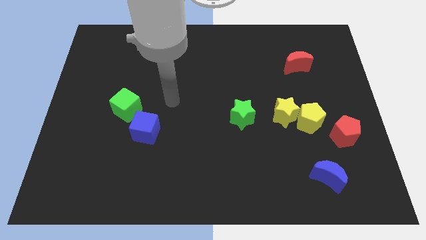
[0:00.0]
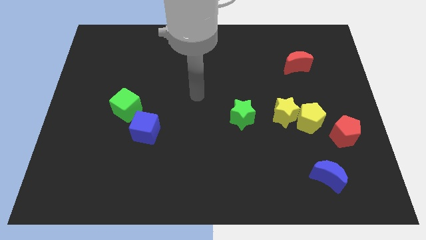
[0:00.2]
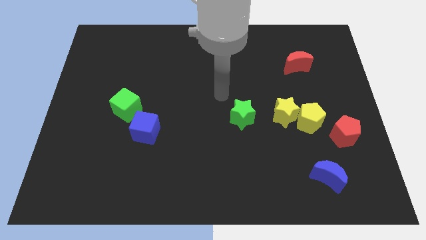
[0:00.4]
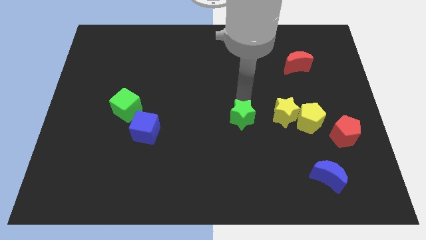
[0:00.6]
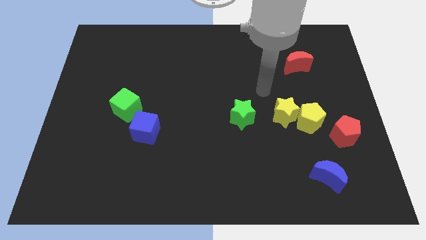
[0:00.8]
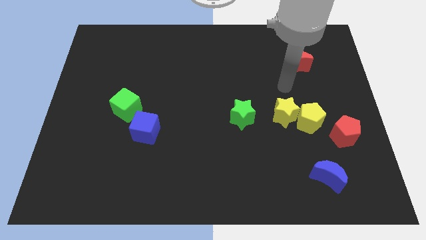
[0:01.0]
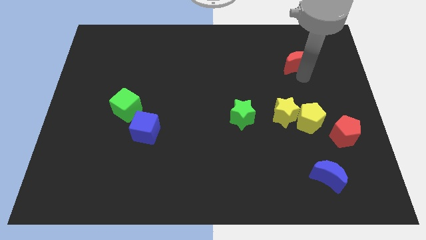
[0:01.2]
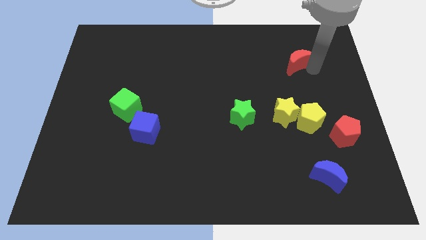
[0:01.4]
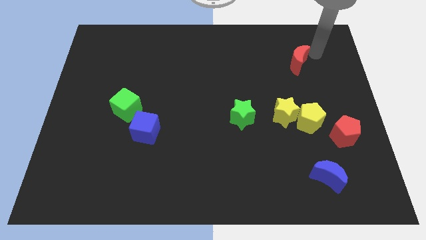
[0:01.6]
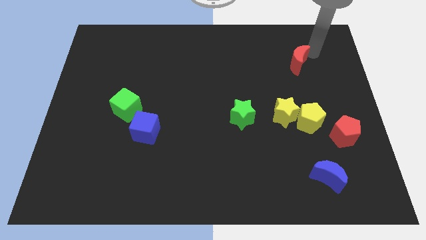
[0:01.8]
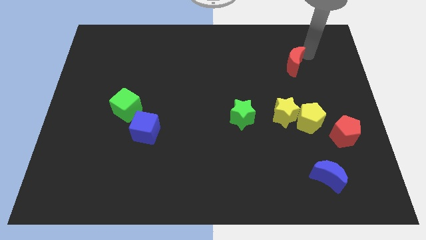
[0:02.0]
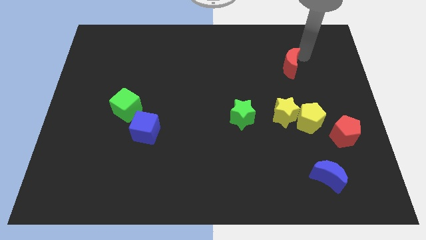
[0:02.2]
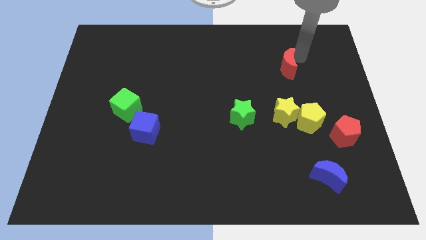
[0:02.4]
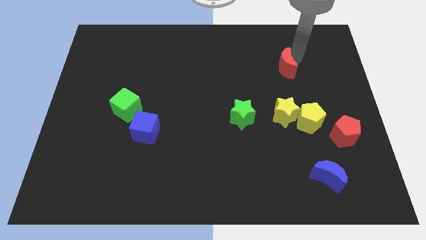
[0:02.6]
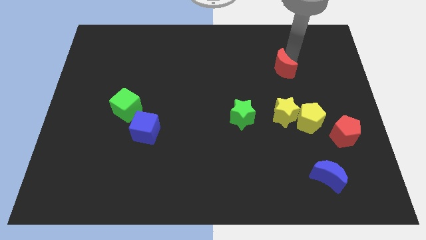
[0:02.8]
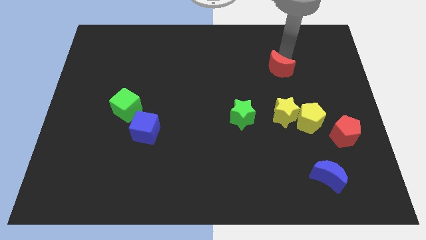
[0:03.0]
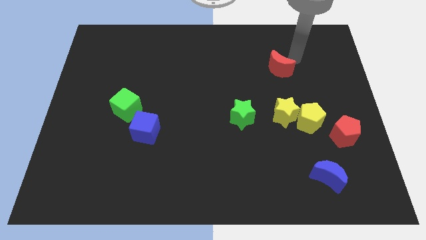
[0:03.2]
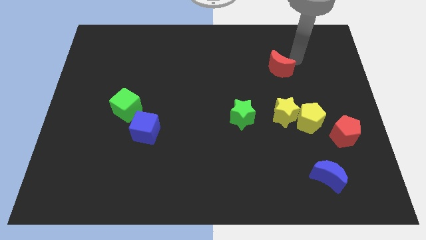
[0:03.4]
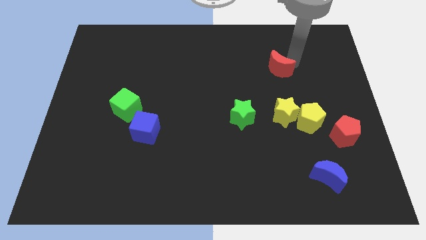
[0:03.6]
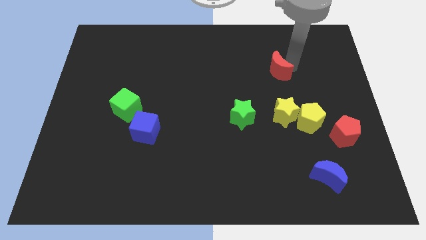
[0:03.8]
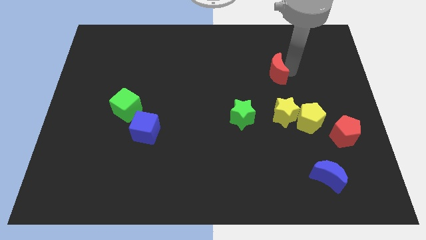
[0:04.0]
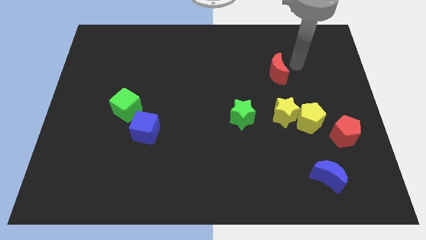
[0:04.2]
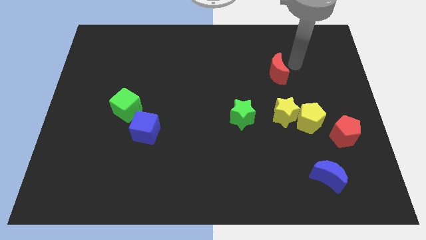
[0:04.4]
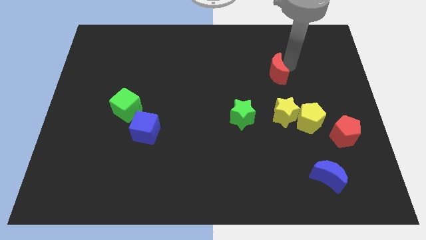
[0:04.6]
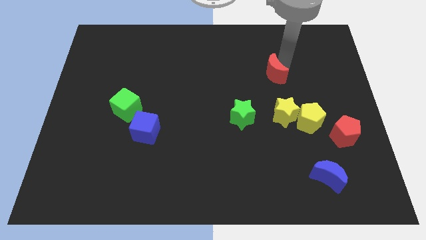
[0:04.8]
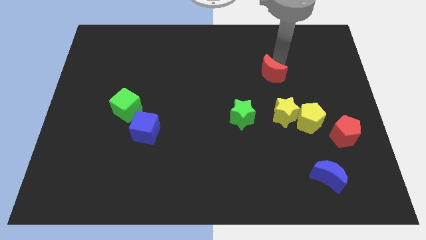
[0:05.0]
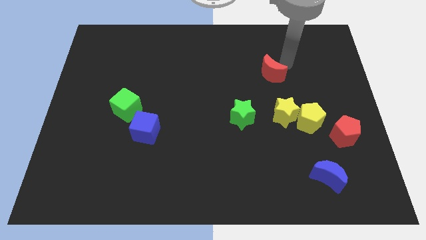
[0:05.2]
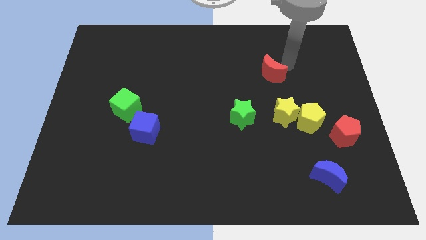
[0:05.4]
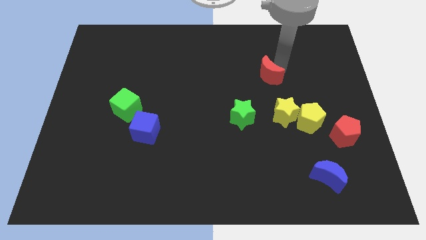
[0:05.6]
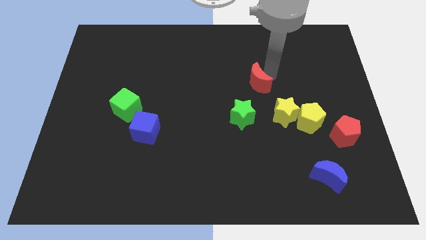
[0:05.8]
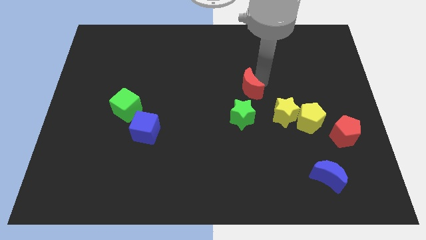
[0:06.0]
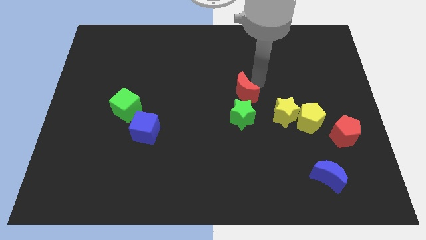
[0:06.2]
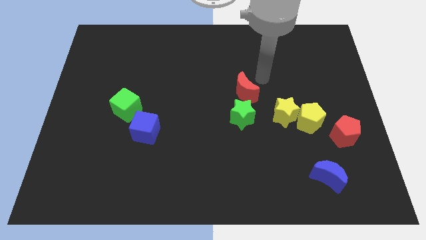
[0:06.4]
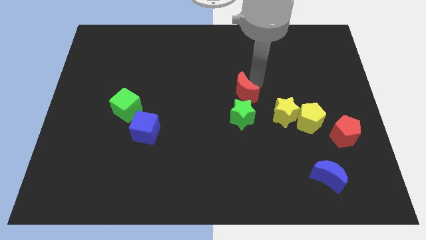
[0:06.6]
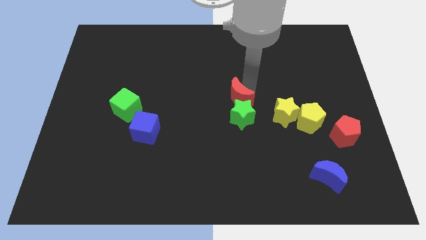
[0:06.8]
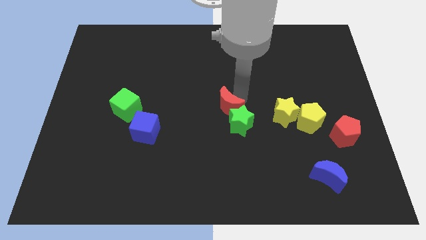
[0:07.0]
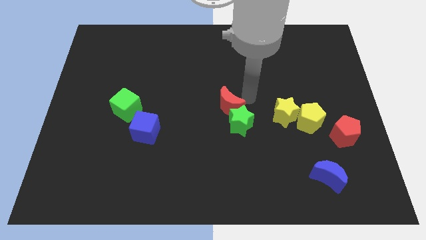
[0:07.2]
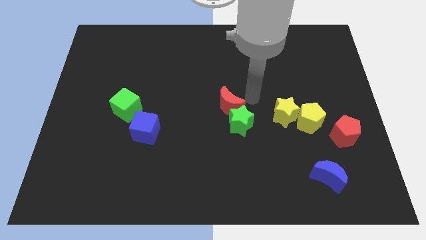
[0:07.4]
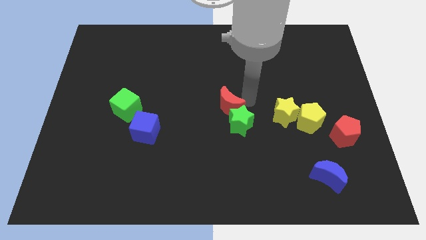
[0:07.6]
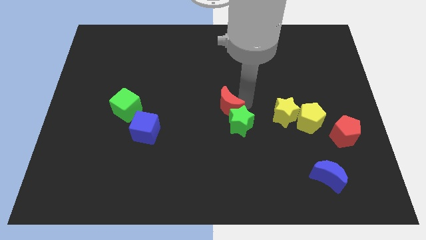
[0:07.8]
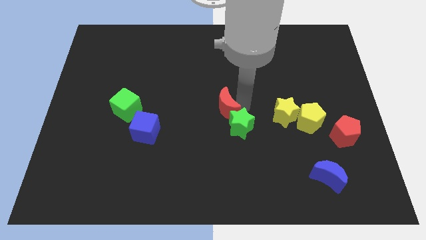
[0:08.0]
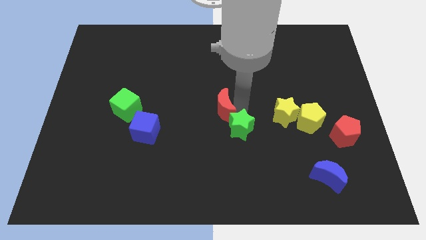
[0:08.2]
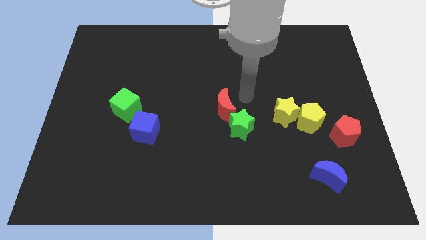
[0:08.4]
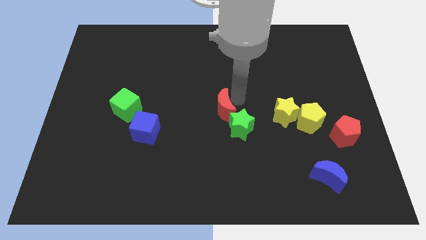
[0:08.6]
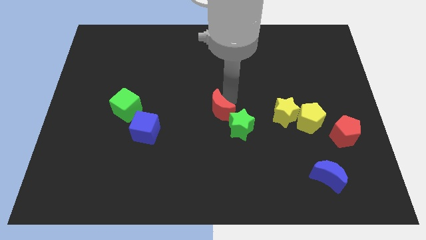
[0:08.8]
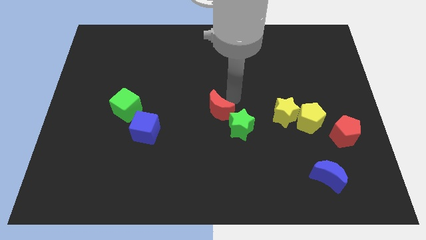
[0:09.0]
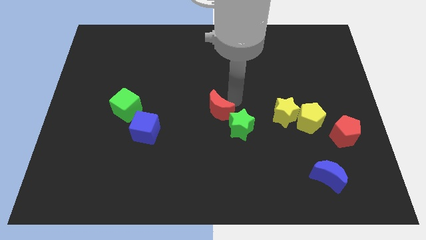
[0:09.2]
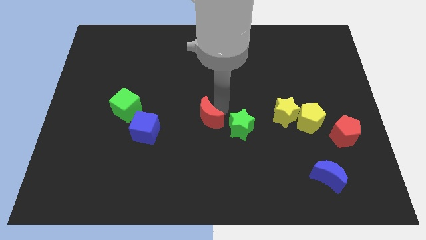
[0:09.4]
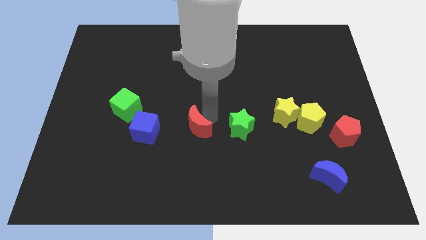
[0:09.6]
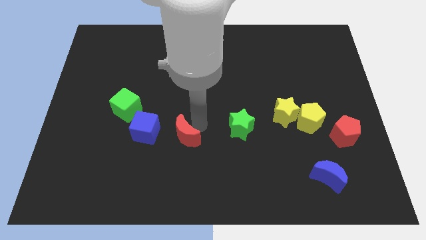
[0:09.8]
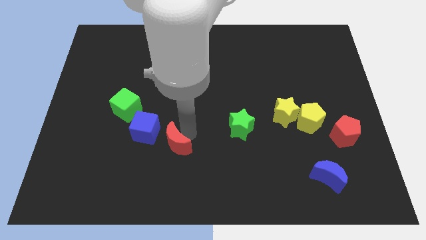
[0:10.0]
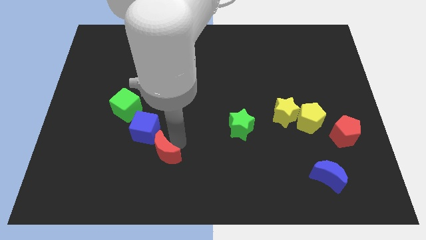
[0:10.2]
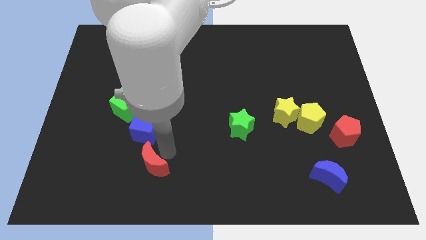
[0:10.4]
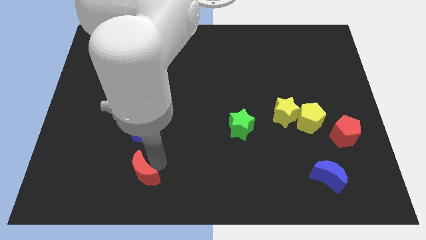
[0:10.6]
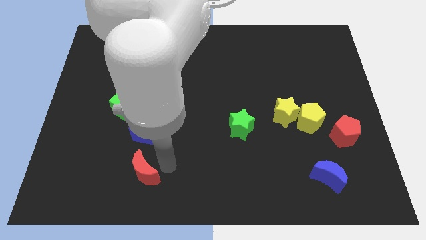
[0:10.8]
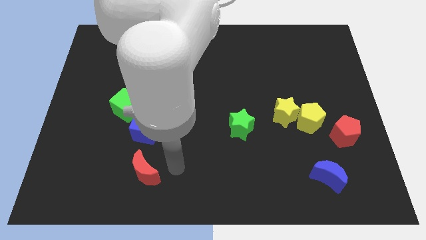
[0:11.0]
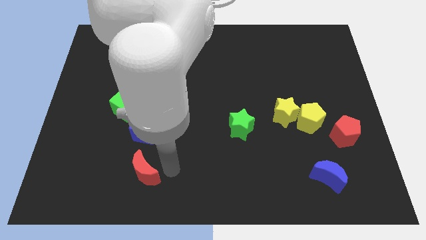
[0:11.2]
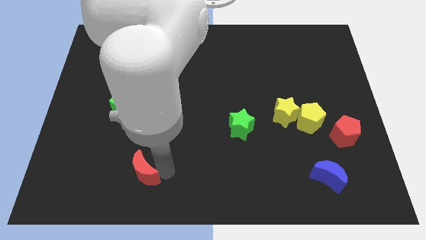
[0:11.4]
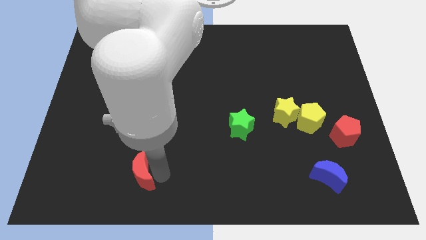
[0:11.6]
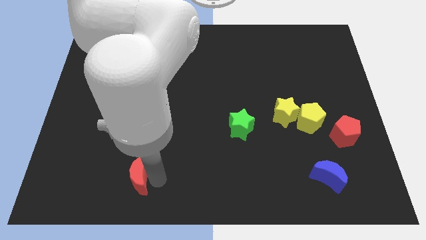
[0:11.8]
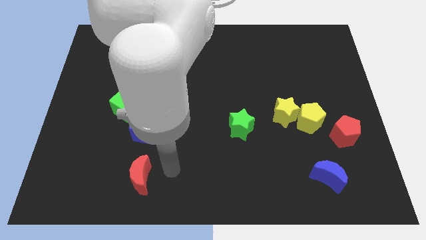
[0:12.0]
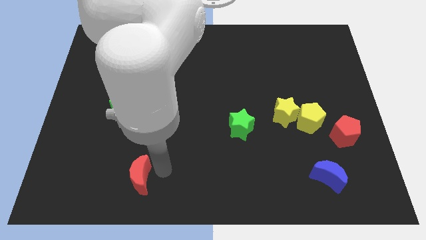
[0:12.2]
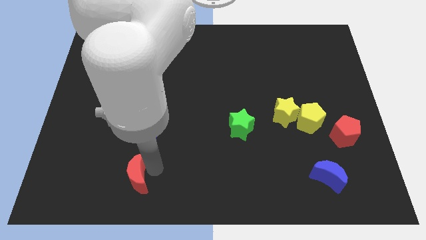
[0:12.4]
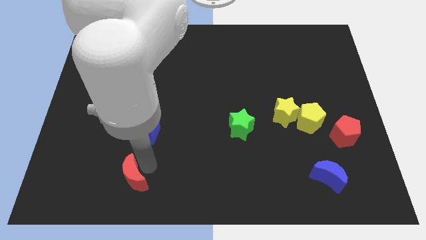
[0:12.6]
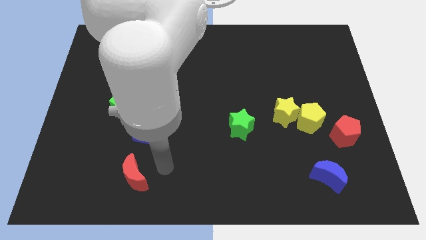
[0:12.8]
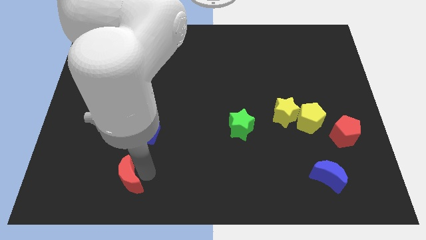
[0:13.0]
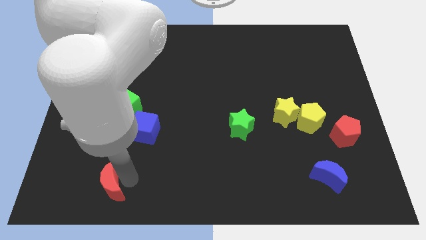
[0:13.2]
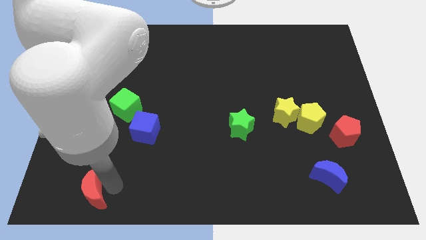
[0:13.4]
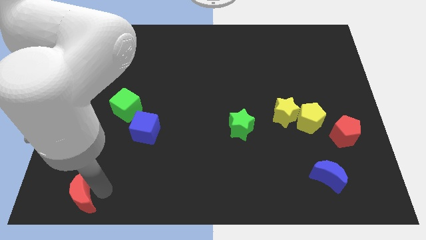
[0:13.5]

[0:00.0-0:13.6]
push the red moon to the bottom left corner
